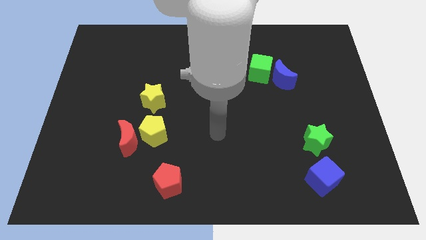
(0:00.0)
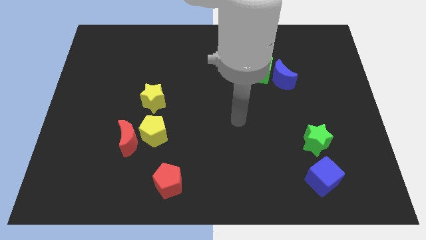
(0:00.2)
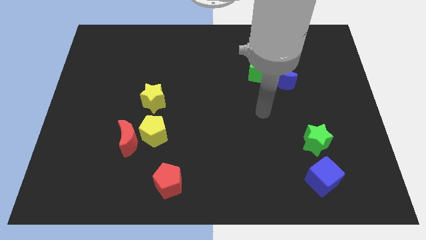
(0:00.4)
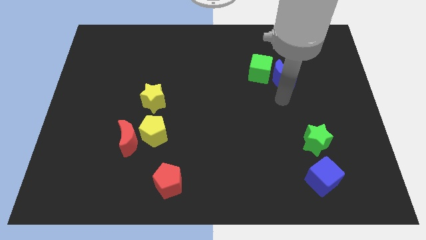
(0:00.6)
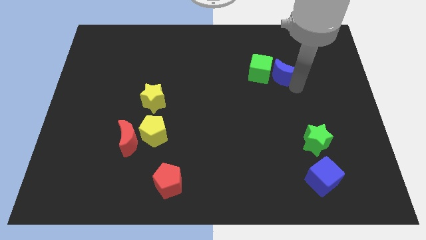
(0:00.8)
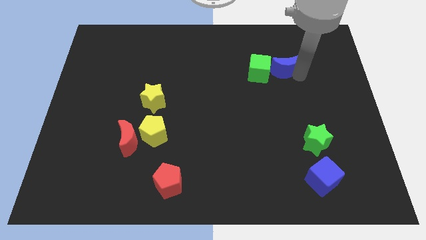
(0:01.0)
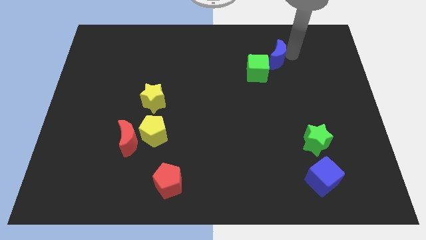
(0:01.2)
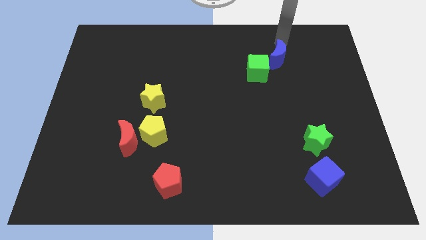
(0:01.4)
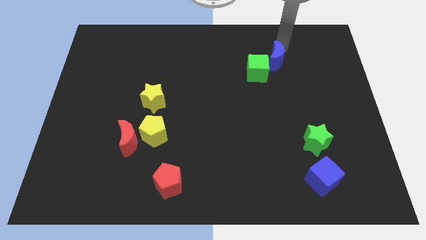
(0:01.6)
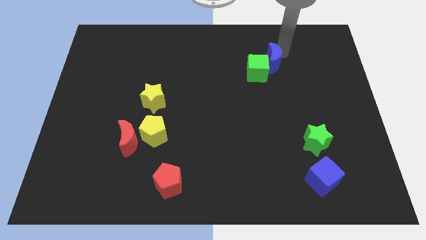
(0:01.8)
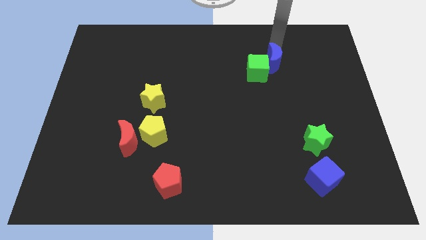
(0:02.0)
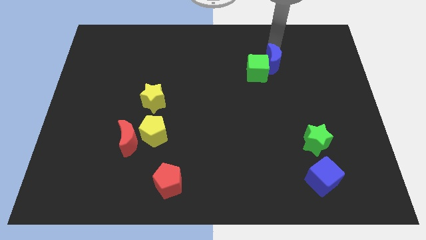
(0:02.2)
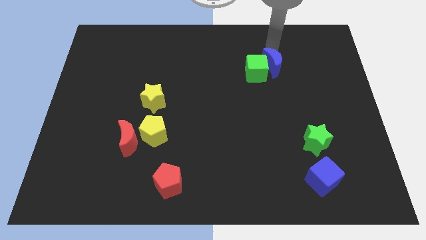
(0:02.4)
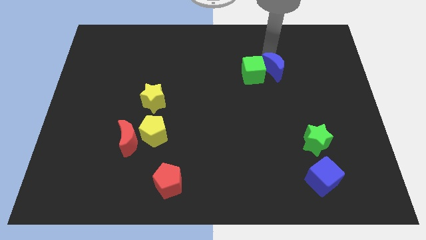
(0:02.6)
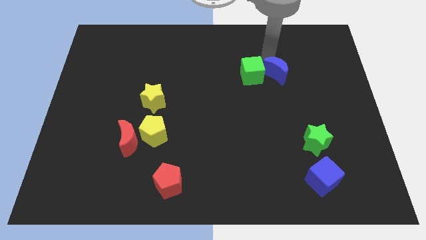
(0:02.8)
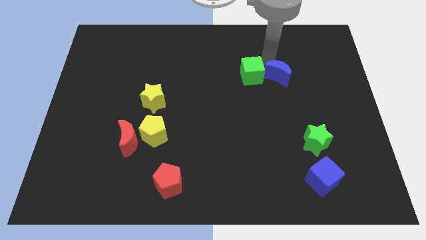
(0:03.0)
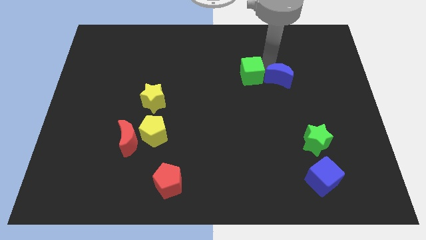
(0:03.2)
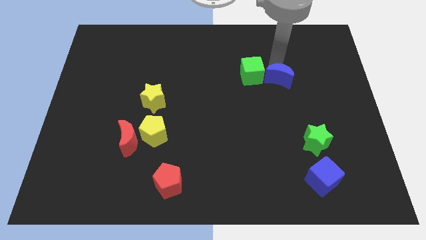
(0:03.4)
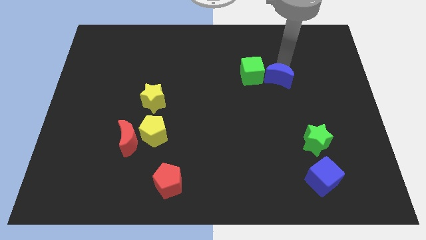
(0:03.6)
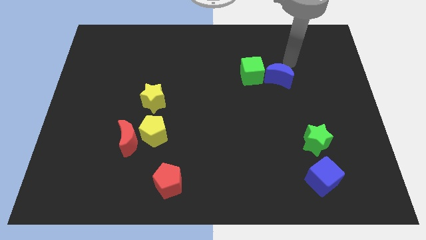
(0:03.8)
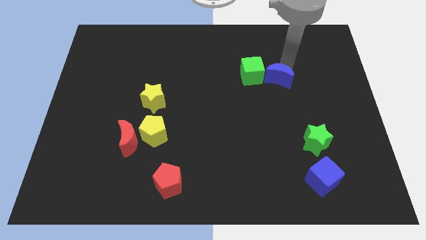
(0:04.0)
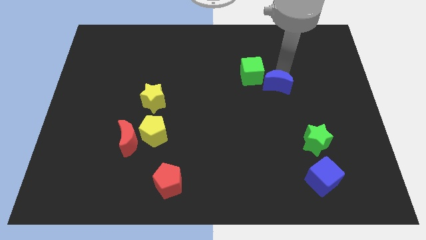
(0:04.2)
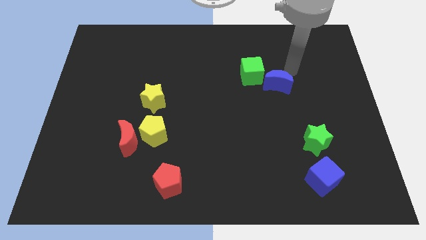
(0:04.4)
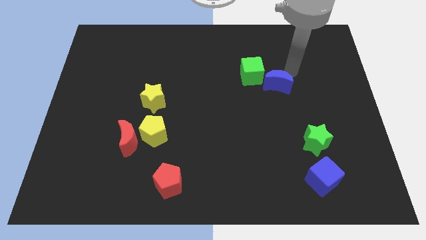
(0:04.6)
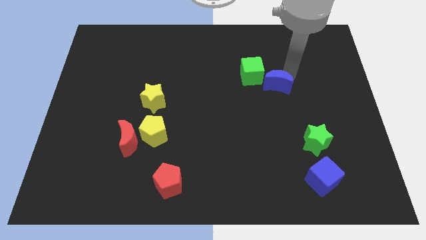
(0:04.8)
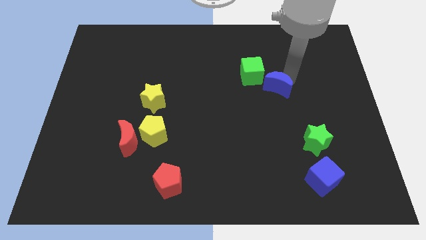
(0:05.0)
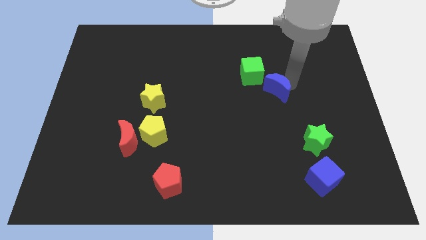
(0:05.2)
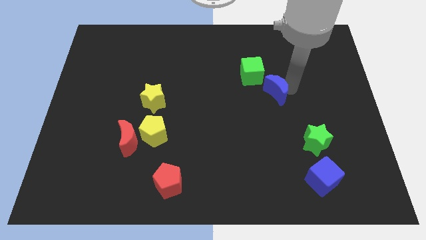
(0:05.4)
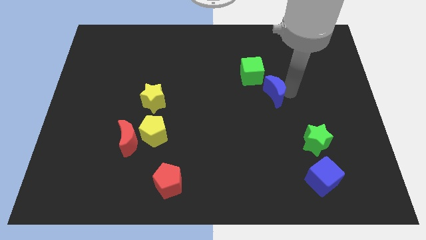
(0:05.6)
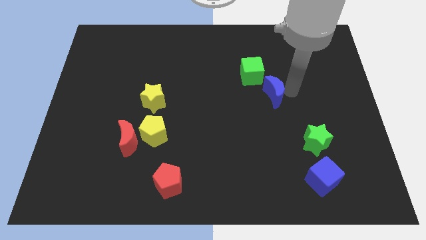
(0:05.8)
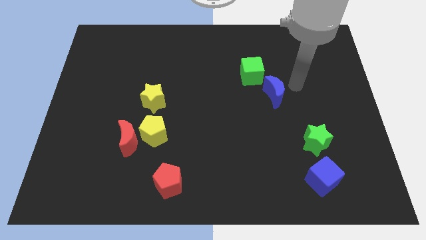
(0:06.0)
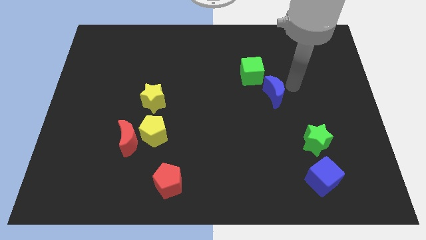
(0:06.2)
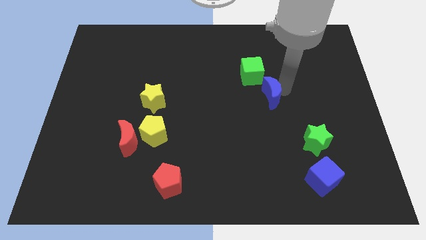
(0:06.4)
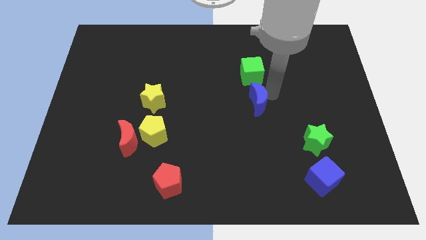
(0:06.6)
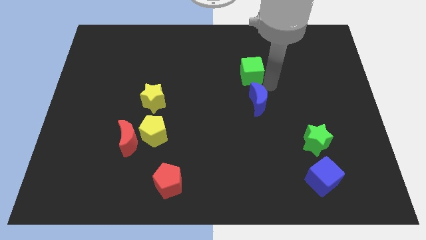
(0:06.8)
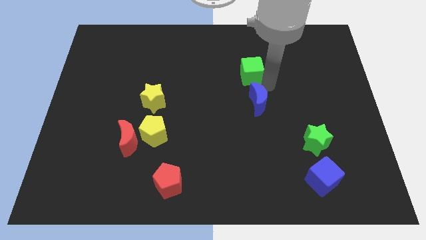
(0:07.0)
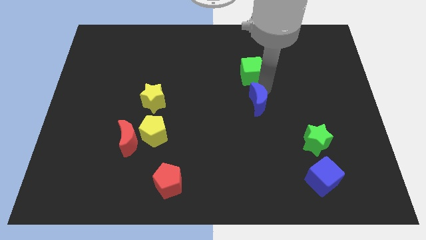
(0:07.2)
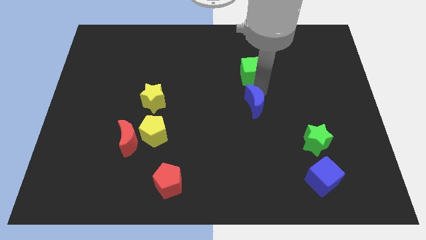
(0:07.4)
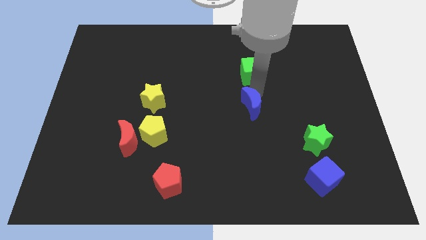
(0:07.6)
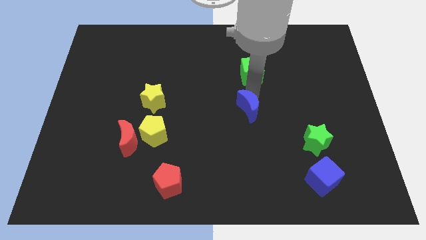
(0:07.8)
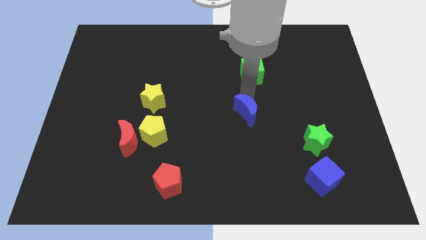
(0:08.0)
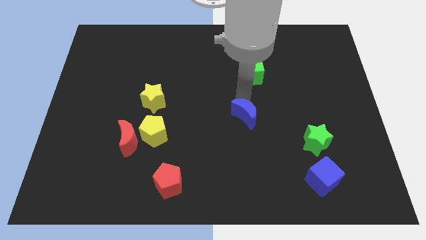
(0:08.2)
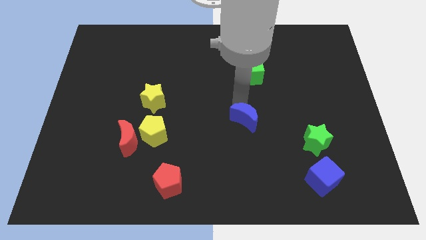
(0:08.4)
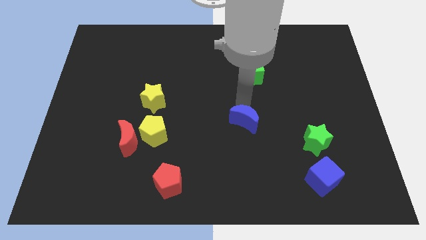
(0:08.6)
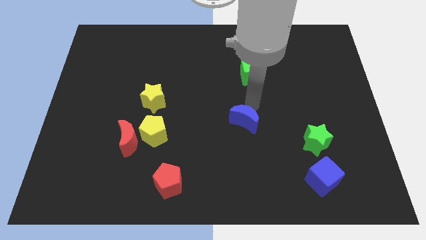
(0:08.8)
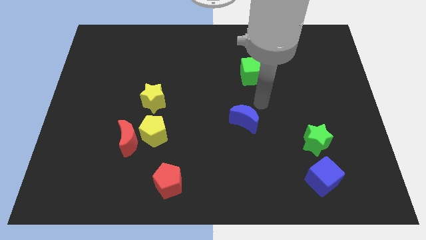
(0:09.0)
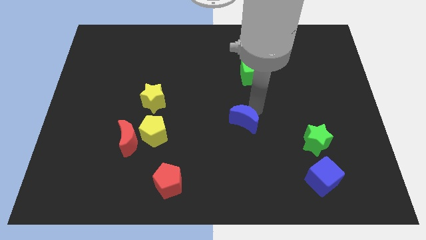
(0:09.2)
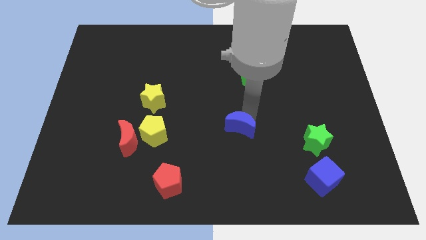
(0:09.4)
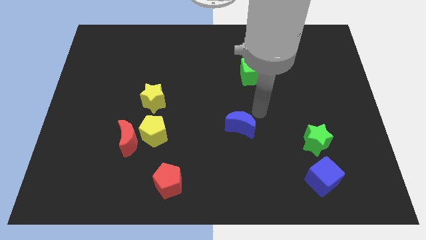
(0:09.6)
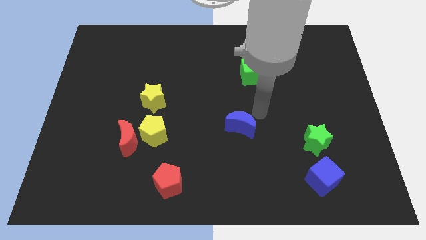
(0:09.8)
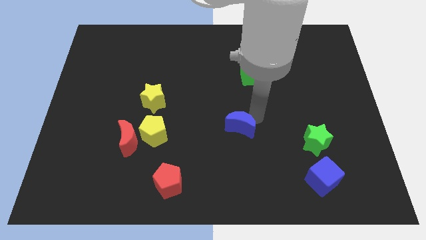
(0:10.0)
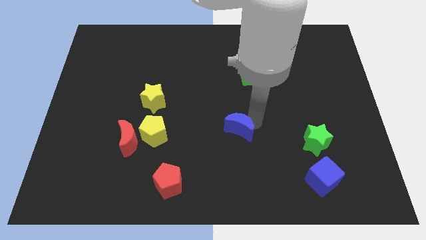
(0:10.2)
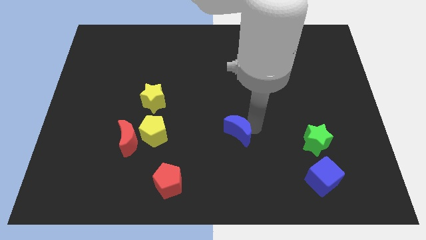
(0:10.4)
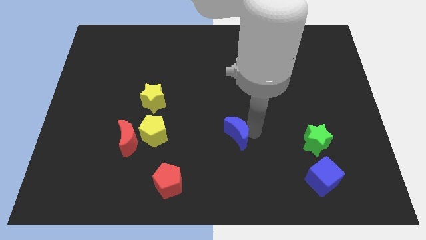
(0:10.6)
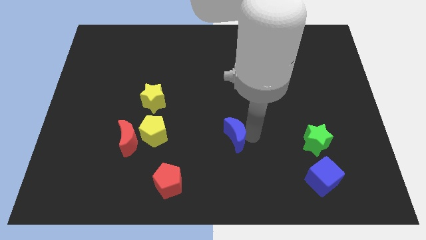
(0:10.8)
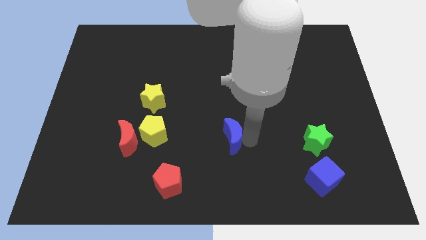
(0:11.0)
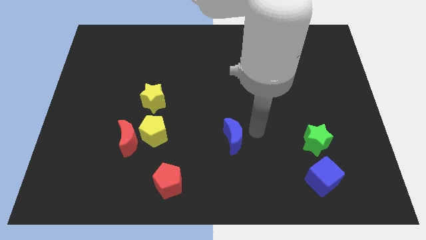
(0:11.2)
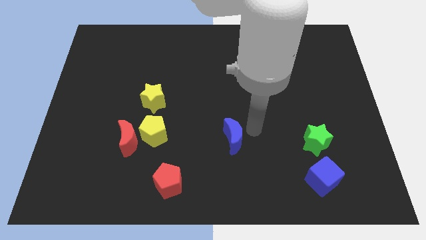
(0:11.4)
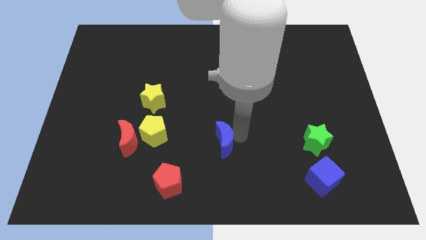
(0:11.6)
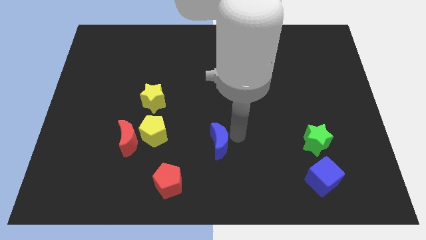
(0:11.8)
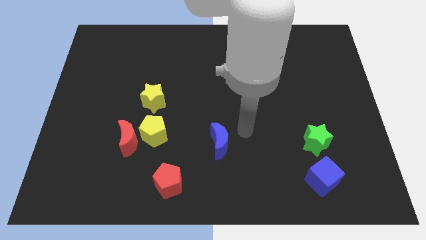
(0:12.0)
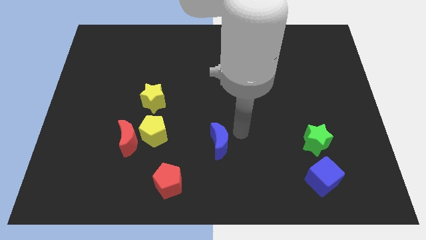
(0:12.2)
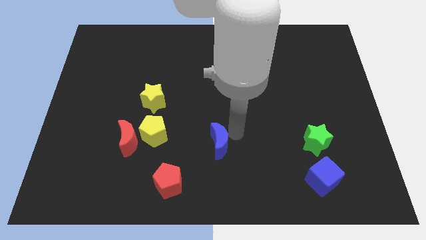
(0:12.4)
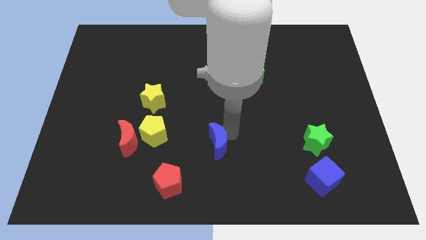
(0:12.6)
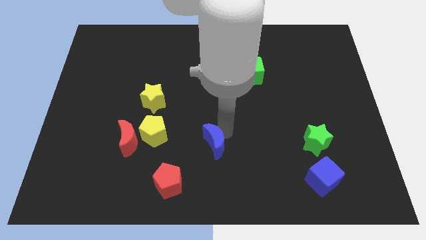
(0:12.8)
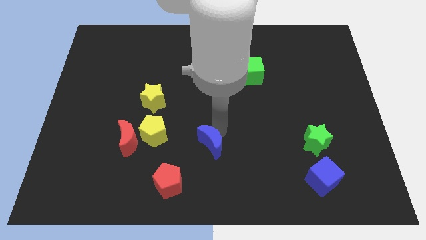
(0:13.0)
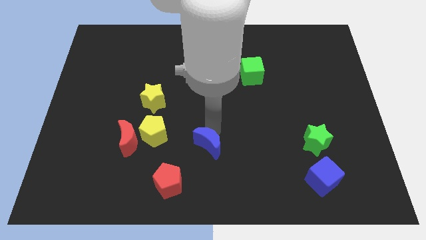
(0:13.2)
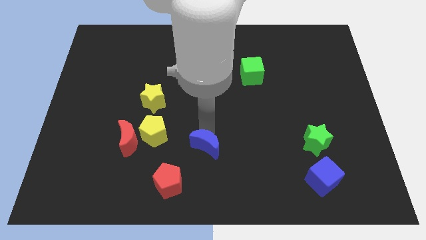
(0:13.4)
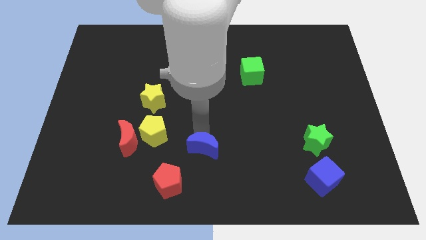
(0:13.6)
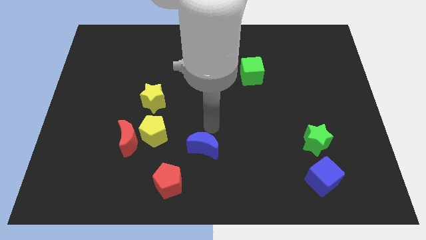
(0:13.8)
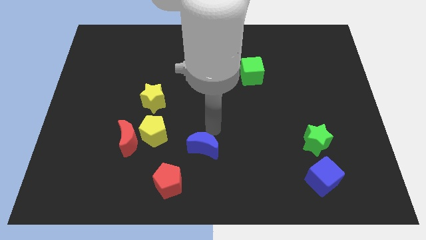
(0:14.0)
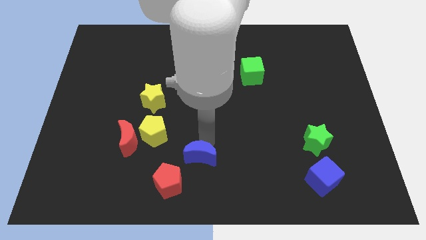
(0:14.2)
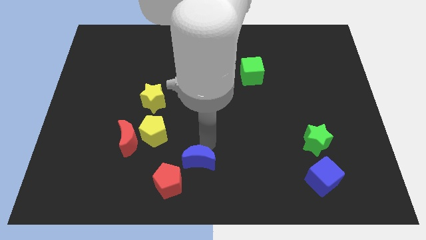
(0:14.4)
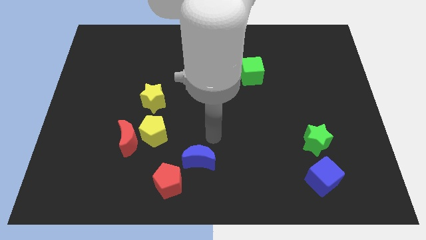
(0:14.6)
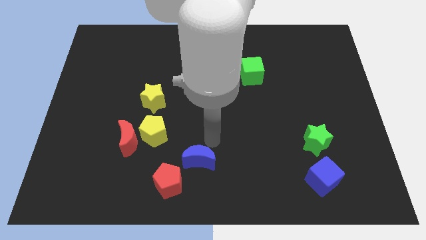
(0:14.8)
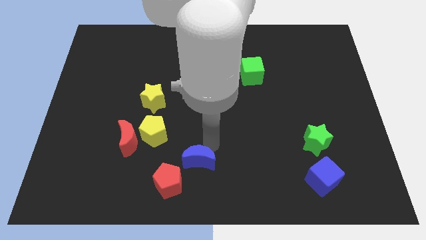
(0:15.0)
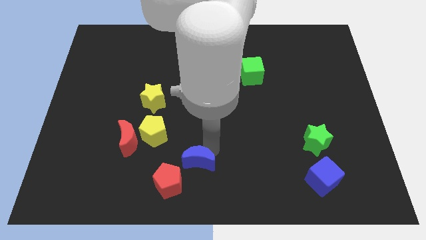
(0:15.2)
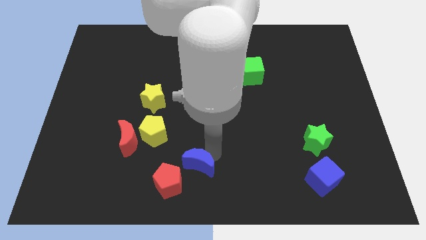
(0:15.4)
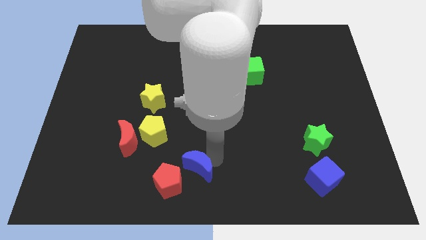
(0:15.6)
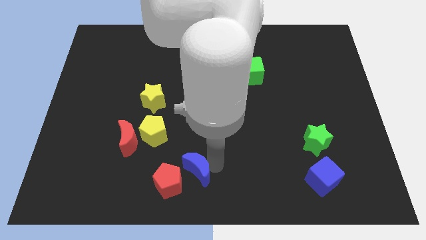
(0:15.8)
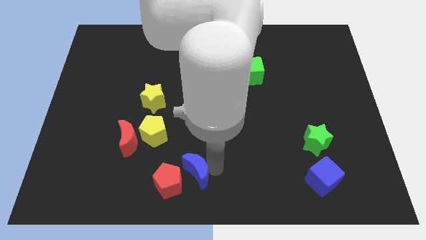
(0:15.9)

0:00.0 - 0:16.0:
put the blue moon towards the red pentagon
